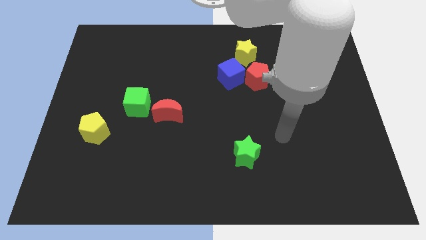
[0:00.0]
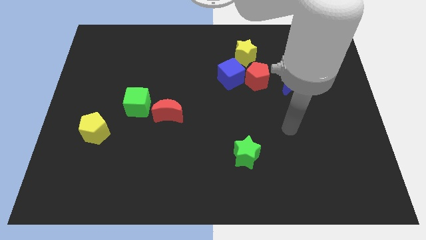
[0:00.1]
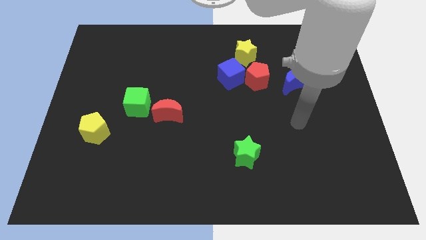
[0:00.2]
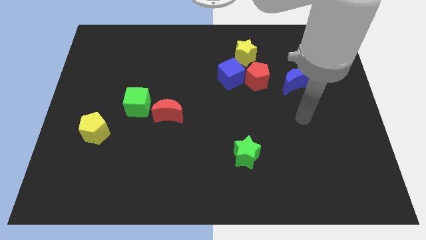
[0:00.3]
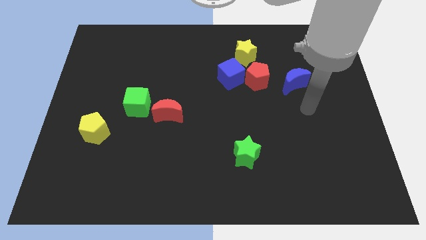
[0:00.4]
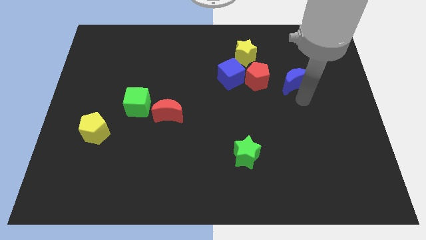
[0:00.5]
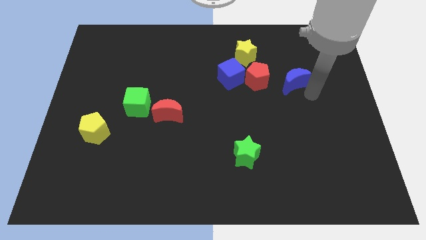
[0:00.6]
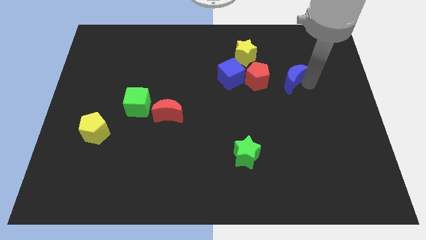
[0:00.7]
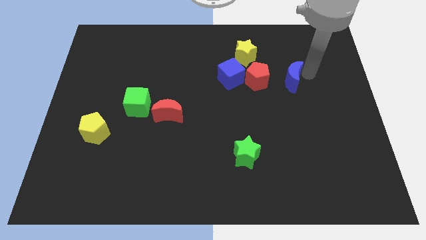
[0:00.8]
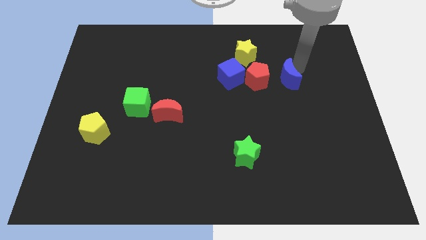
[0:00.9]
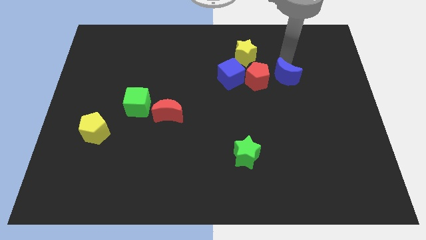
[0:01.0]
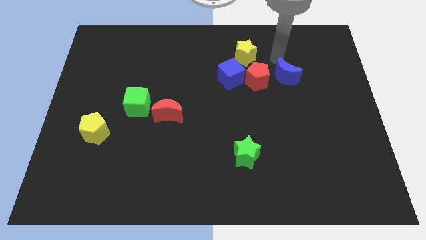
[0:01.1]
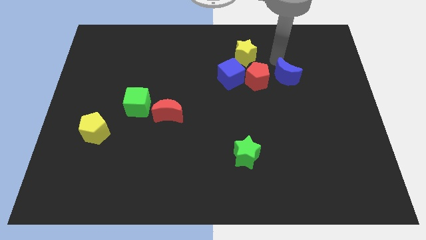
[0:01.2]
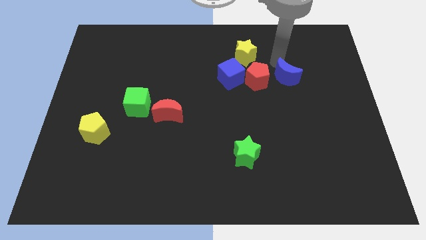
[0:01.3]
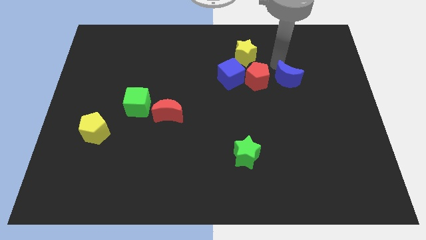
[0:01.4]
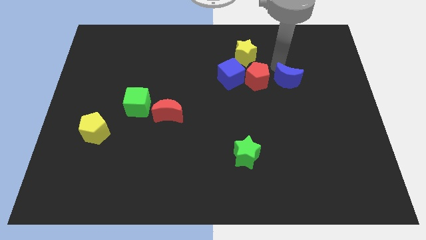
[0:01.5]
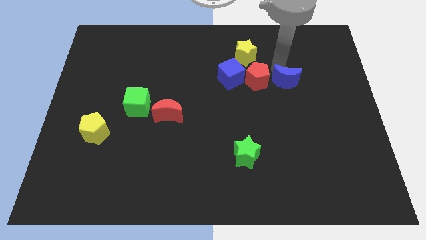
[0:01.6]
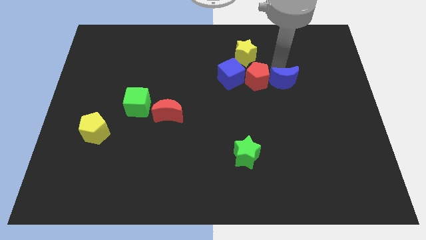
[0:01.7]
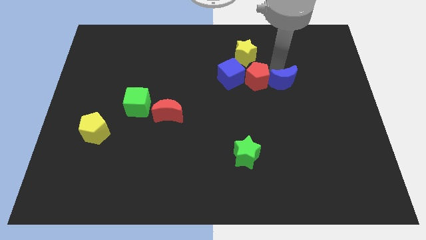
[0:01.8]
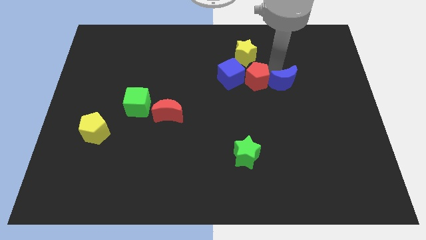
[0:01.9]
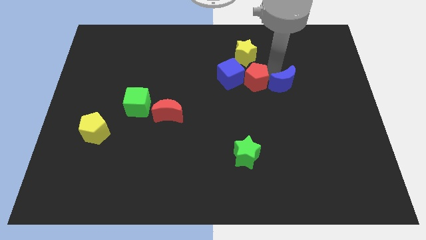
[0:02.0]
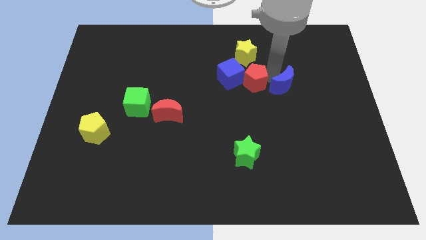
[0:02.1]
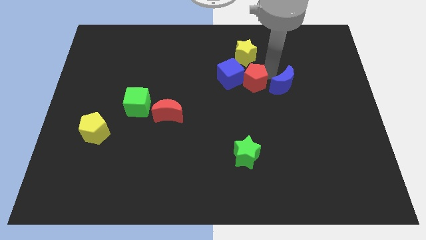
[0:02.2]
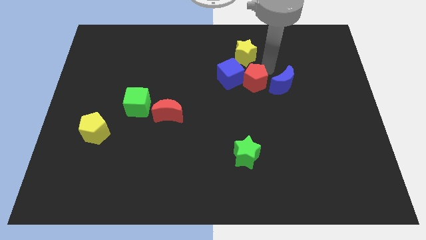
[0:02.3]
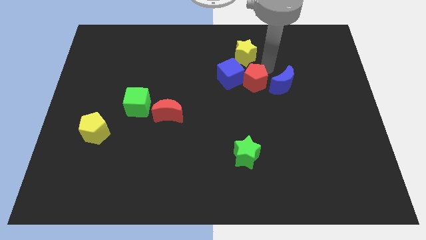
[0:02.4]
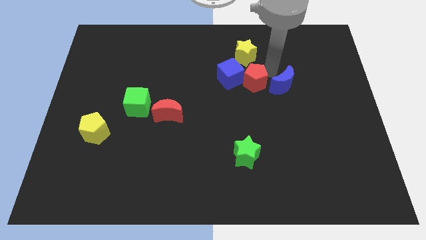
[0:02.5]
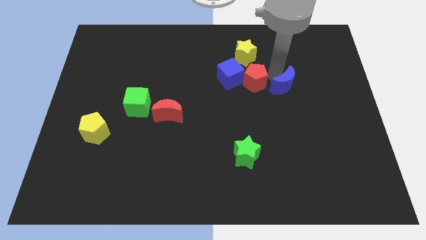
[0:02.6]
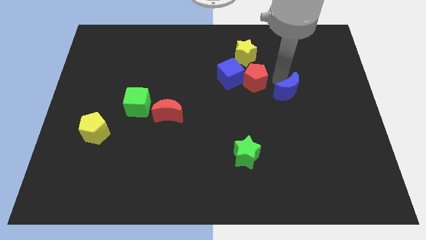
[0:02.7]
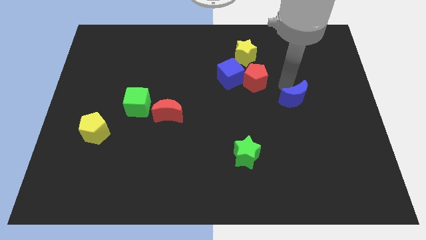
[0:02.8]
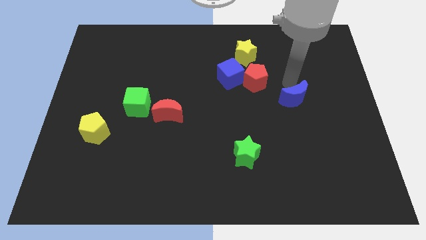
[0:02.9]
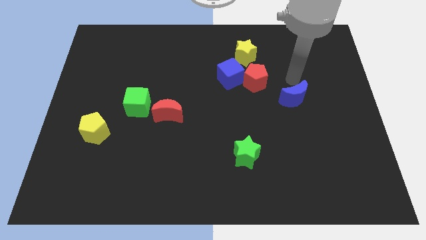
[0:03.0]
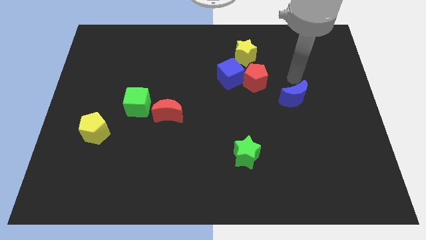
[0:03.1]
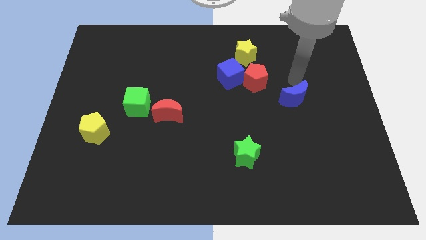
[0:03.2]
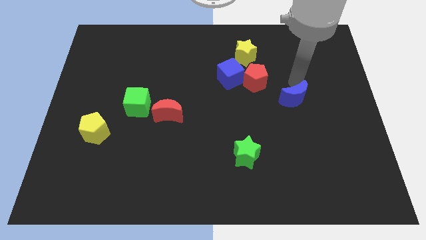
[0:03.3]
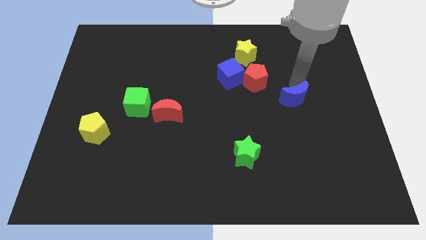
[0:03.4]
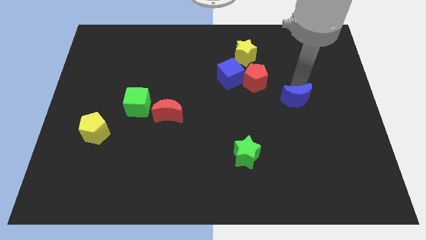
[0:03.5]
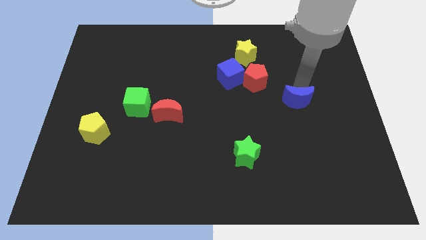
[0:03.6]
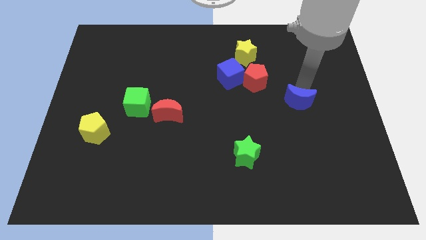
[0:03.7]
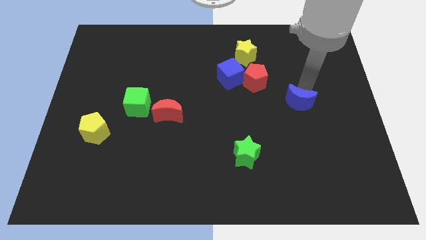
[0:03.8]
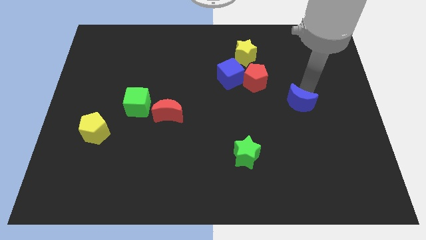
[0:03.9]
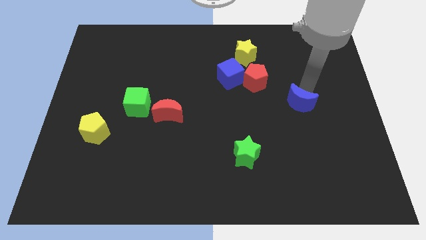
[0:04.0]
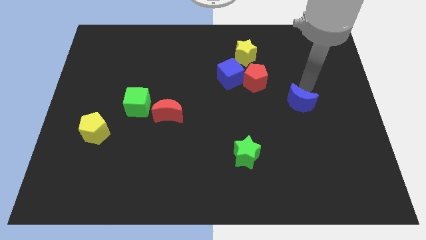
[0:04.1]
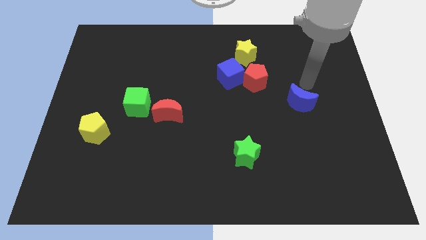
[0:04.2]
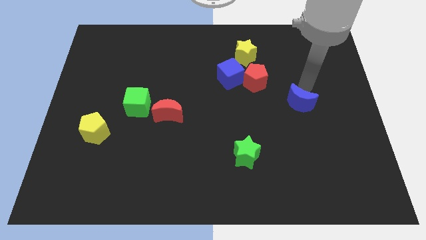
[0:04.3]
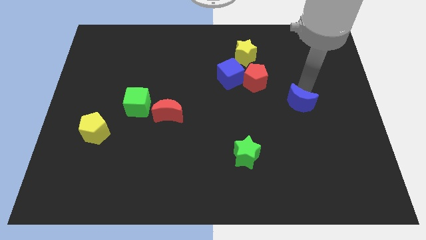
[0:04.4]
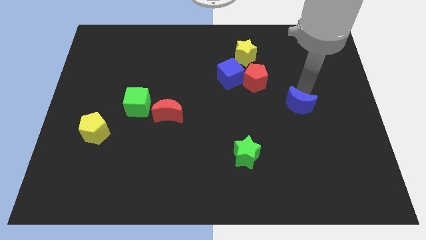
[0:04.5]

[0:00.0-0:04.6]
slightly move the blue moon down

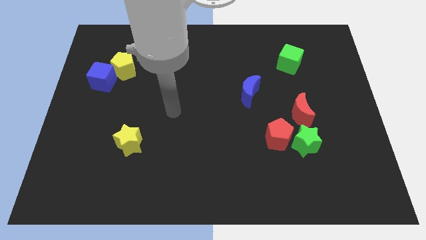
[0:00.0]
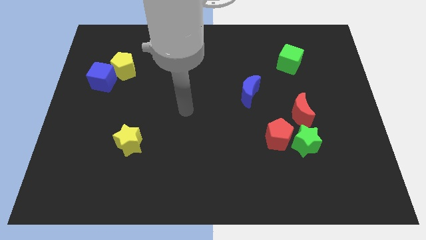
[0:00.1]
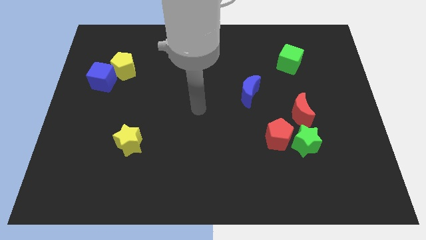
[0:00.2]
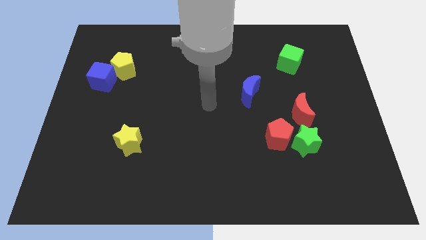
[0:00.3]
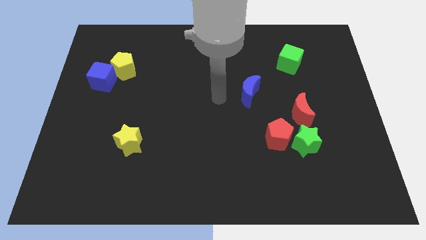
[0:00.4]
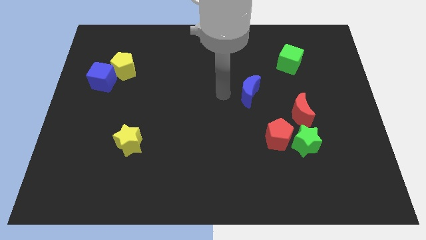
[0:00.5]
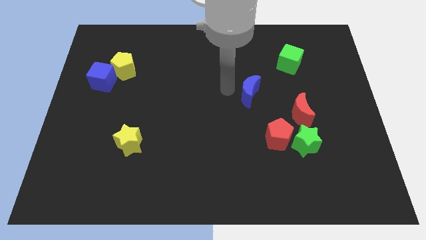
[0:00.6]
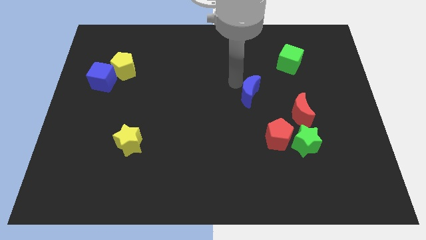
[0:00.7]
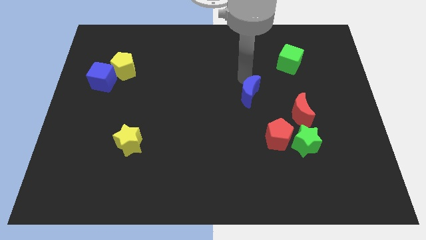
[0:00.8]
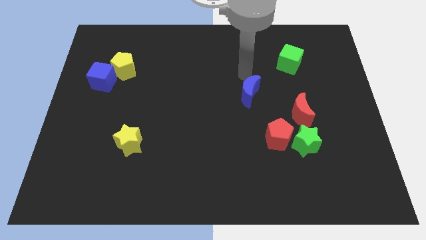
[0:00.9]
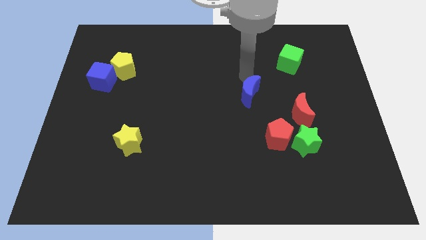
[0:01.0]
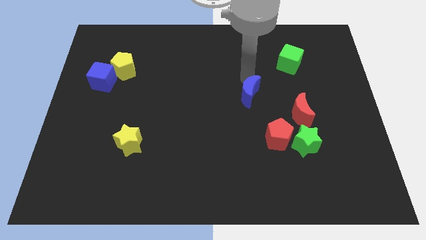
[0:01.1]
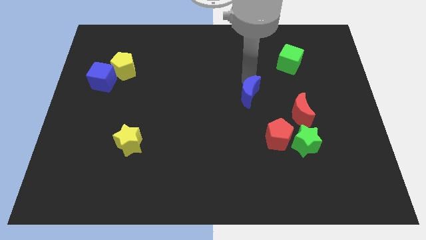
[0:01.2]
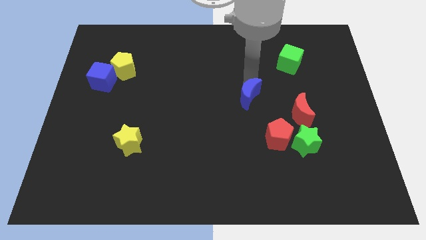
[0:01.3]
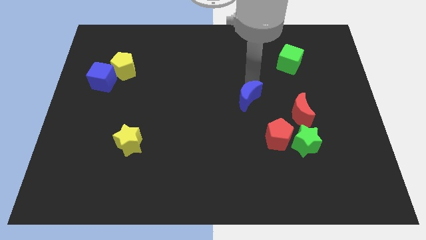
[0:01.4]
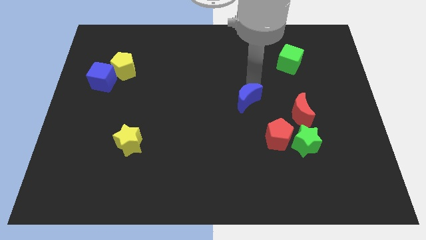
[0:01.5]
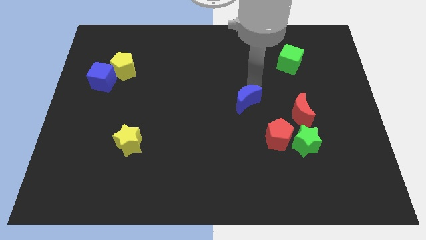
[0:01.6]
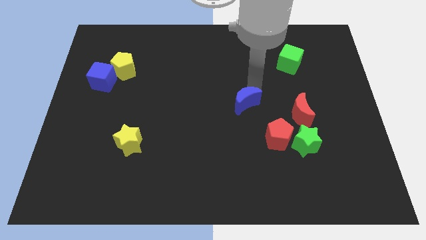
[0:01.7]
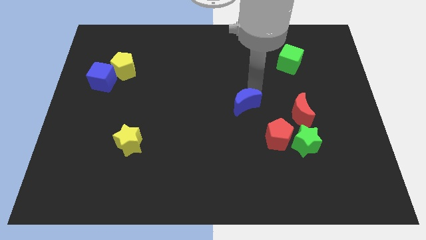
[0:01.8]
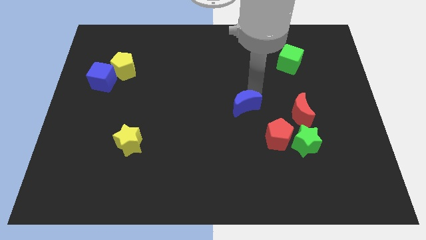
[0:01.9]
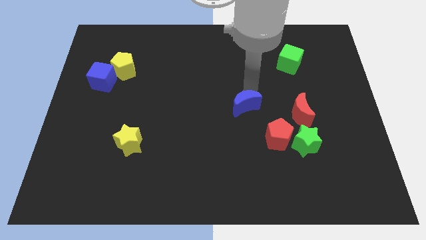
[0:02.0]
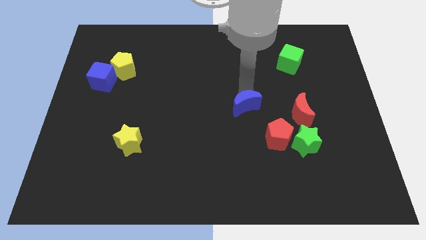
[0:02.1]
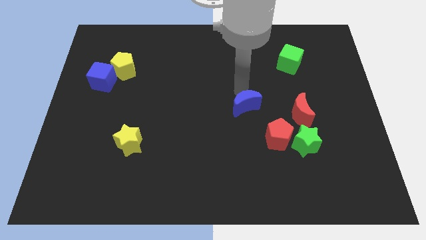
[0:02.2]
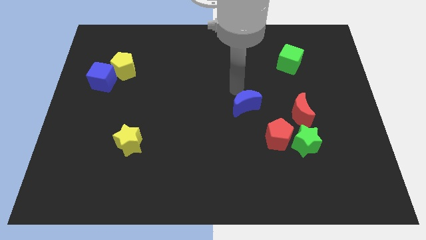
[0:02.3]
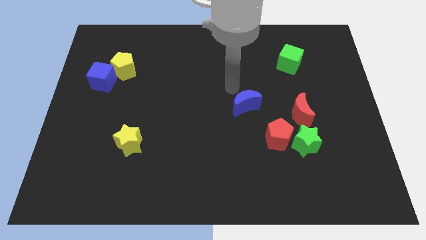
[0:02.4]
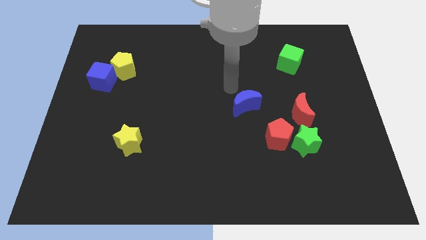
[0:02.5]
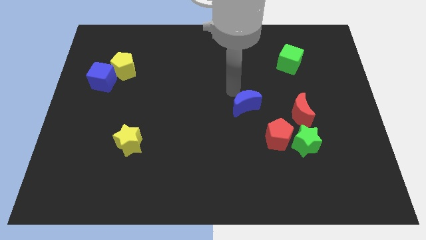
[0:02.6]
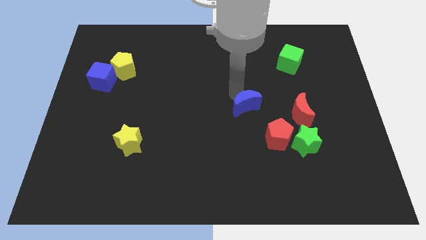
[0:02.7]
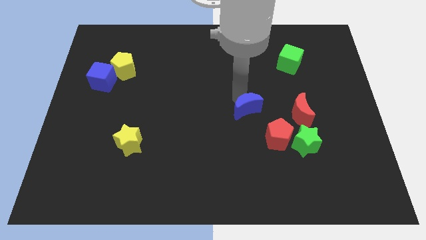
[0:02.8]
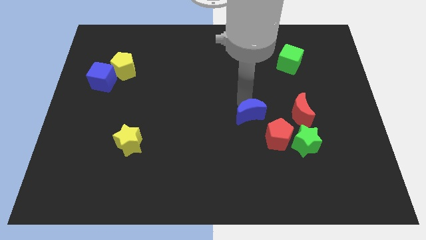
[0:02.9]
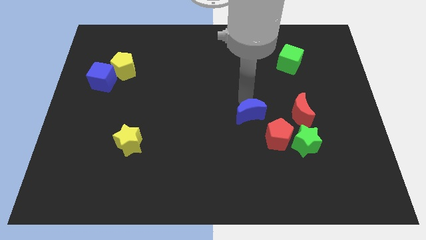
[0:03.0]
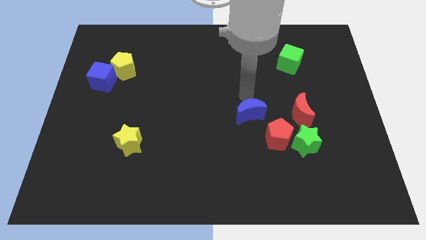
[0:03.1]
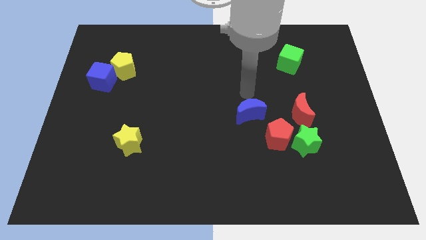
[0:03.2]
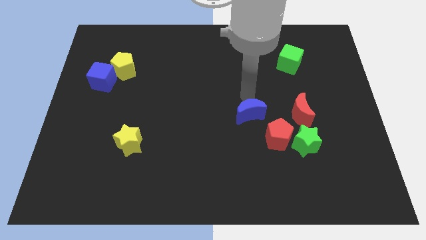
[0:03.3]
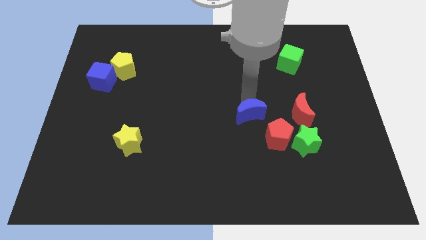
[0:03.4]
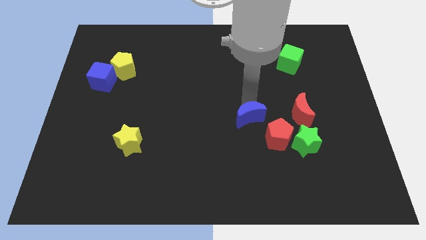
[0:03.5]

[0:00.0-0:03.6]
push the blue moon a little downwards
